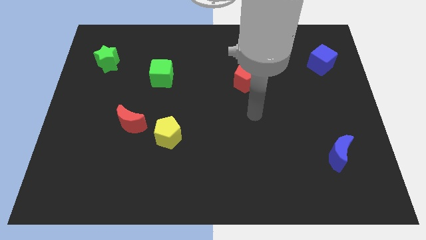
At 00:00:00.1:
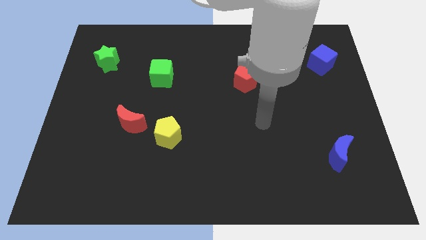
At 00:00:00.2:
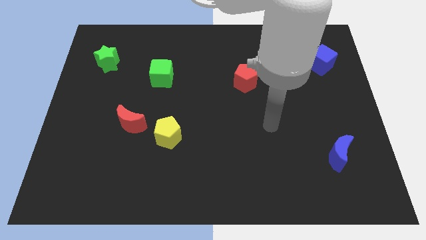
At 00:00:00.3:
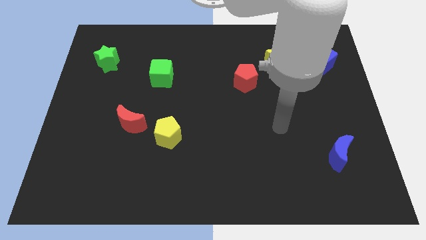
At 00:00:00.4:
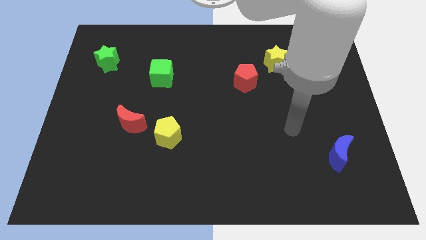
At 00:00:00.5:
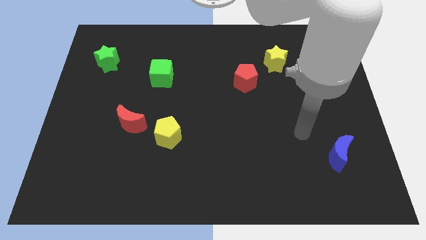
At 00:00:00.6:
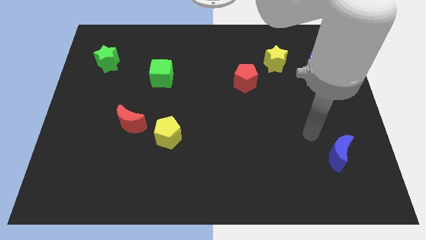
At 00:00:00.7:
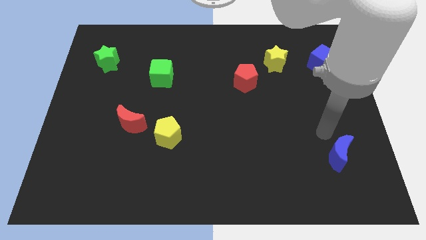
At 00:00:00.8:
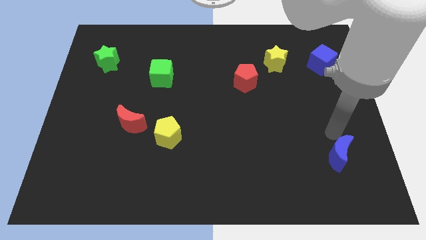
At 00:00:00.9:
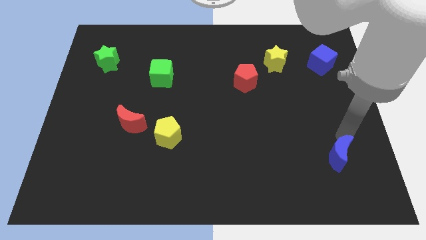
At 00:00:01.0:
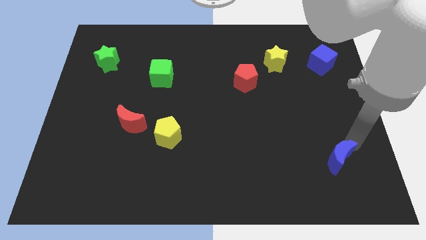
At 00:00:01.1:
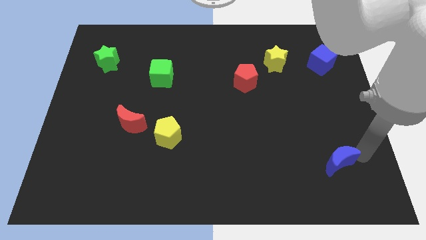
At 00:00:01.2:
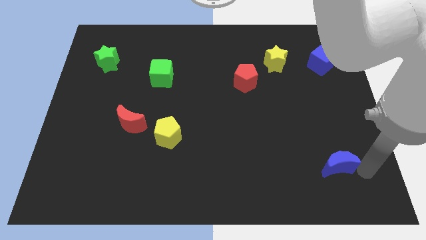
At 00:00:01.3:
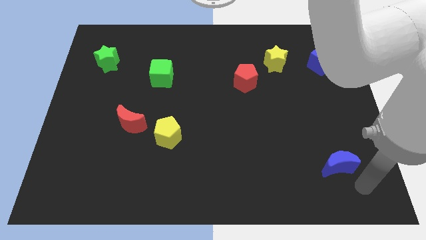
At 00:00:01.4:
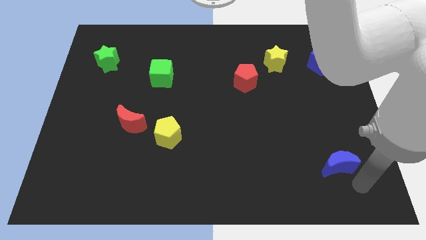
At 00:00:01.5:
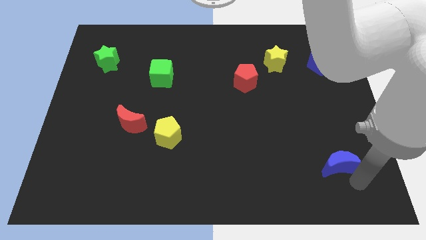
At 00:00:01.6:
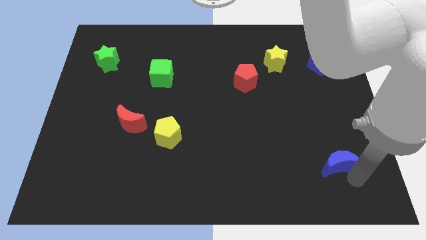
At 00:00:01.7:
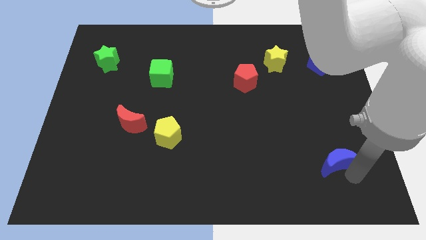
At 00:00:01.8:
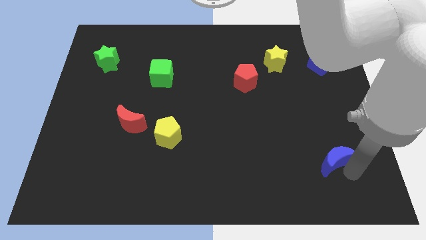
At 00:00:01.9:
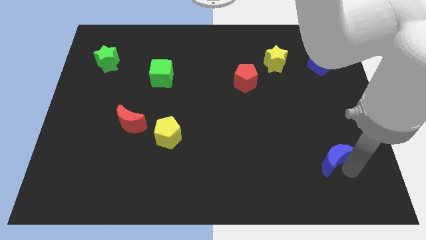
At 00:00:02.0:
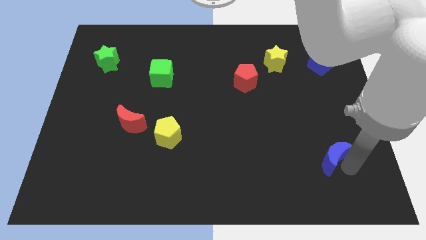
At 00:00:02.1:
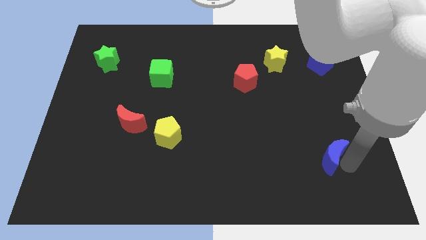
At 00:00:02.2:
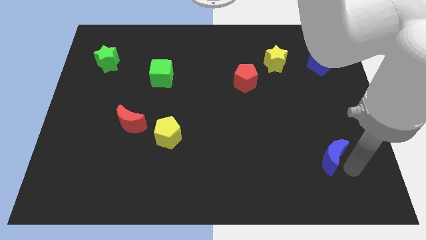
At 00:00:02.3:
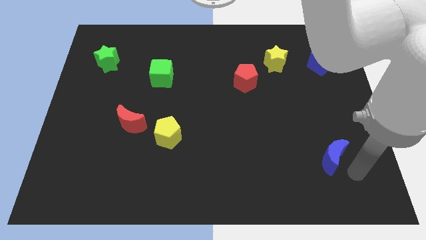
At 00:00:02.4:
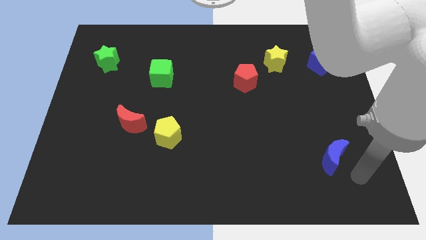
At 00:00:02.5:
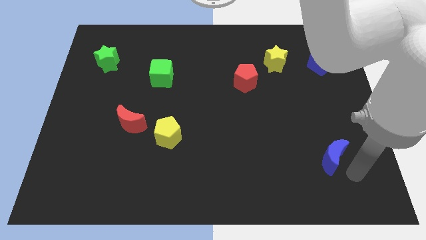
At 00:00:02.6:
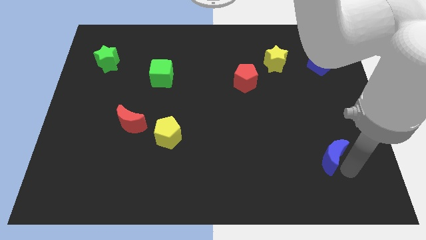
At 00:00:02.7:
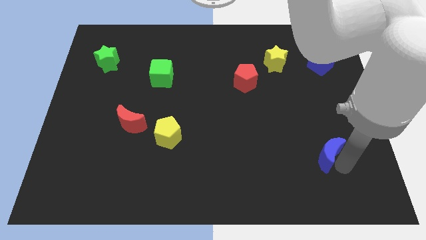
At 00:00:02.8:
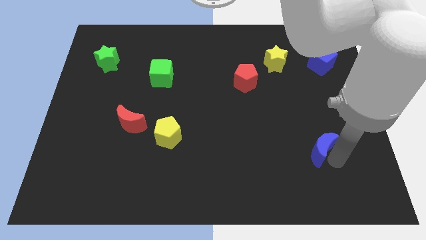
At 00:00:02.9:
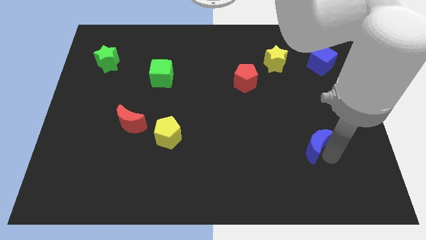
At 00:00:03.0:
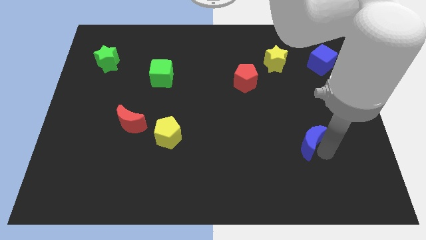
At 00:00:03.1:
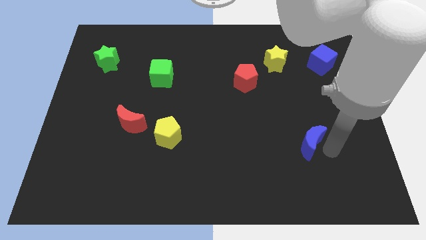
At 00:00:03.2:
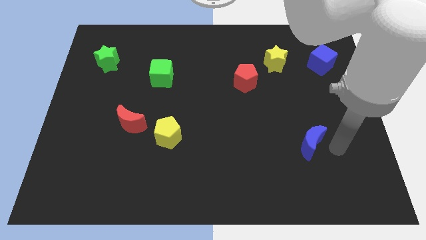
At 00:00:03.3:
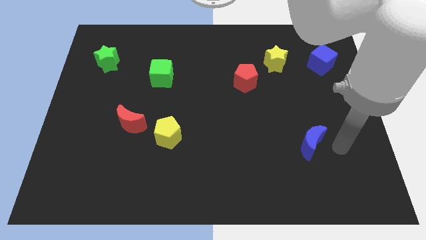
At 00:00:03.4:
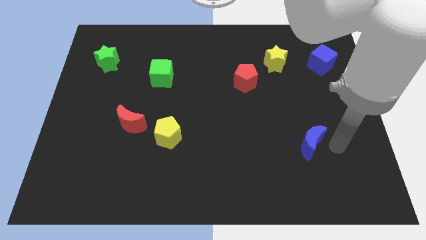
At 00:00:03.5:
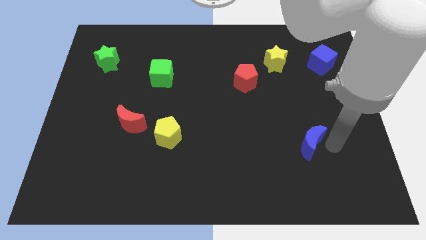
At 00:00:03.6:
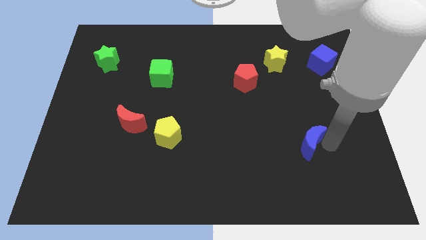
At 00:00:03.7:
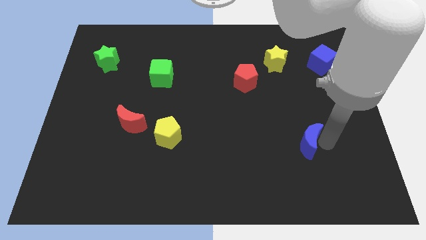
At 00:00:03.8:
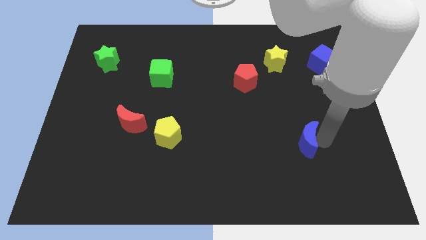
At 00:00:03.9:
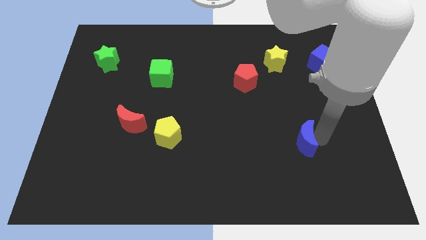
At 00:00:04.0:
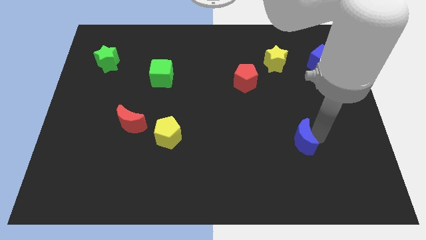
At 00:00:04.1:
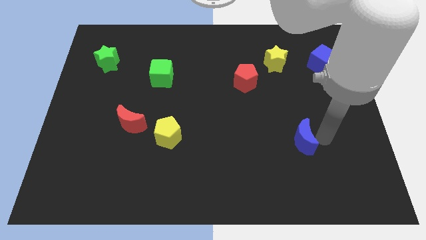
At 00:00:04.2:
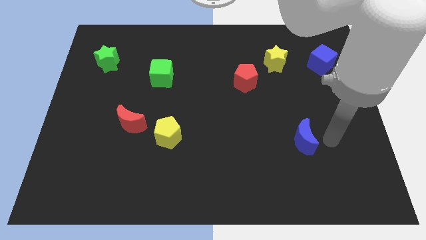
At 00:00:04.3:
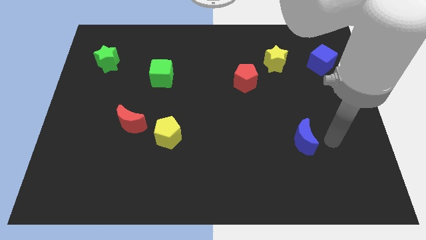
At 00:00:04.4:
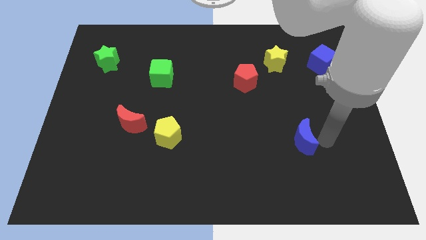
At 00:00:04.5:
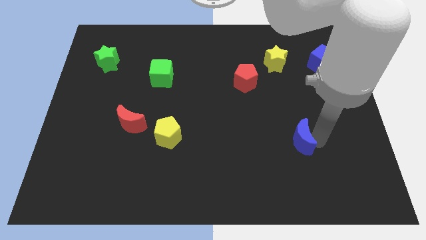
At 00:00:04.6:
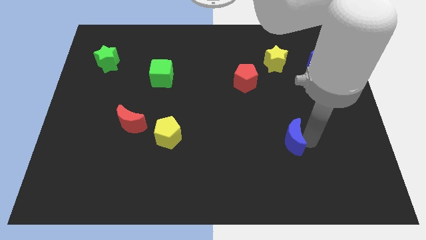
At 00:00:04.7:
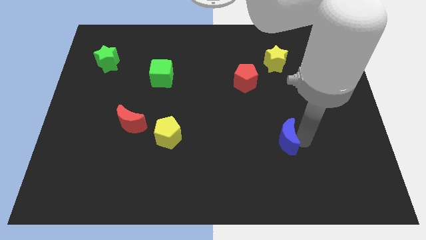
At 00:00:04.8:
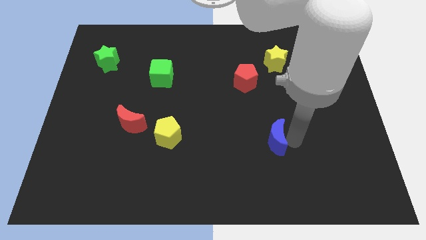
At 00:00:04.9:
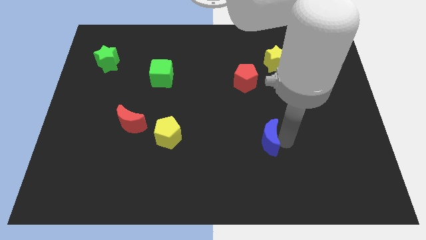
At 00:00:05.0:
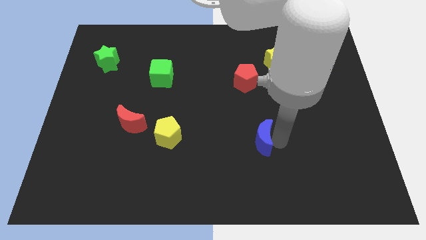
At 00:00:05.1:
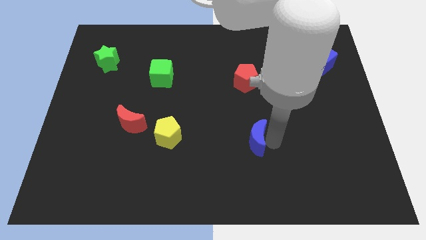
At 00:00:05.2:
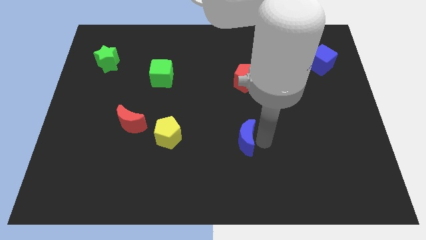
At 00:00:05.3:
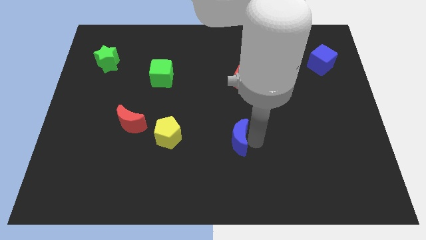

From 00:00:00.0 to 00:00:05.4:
put the blue moon to the right side of the yellow pentagon

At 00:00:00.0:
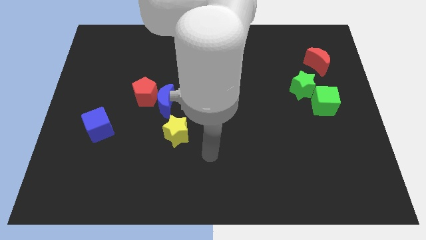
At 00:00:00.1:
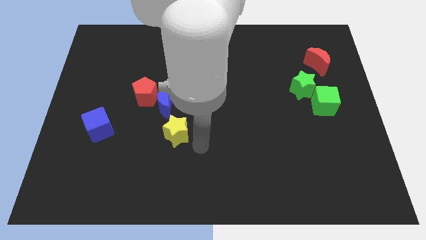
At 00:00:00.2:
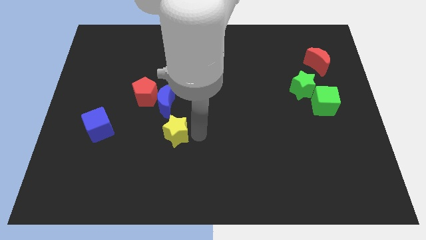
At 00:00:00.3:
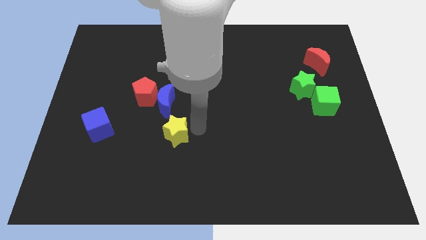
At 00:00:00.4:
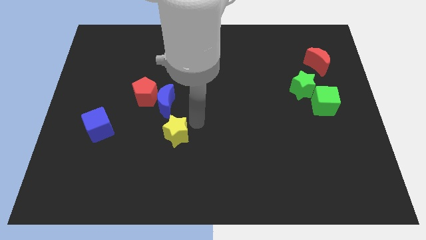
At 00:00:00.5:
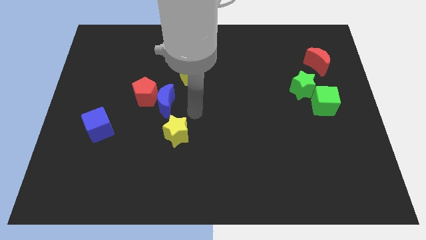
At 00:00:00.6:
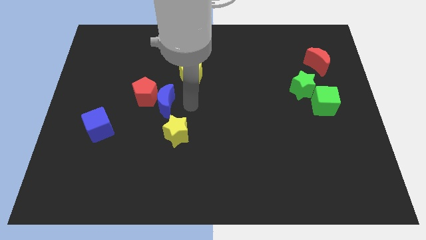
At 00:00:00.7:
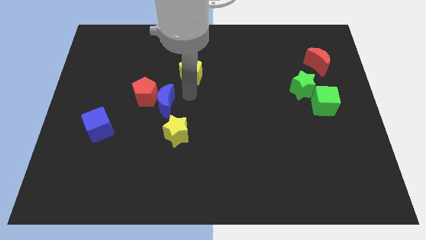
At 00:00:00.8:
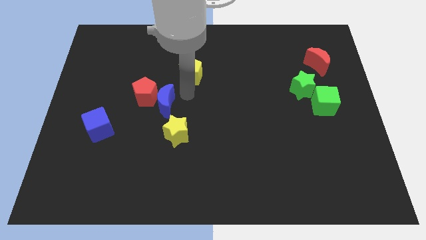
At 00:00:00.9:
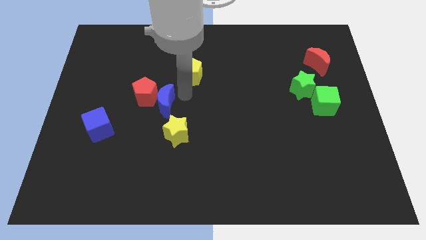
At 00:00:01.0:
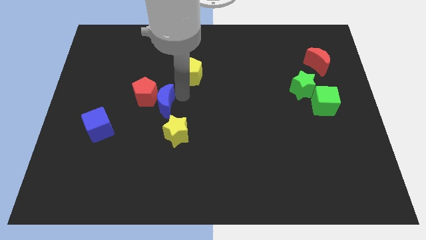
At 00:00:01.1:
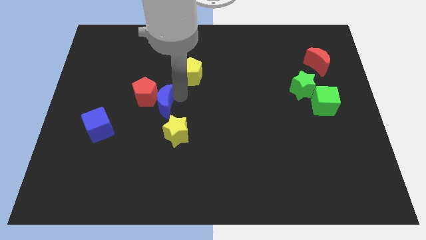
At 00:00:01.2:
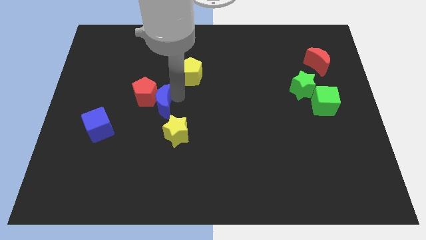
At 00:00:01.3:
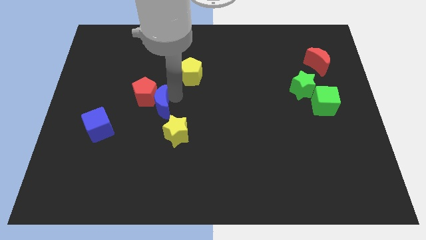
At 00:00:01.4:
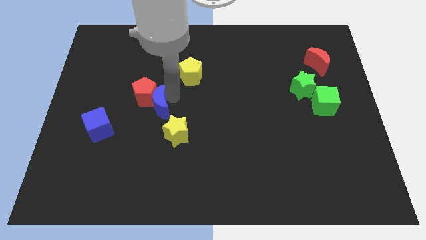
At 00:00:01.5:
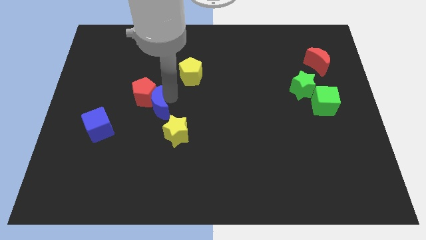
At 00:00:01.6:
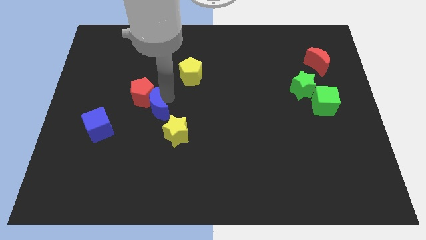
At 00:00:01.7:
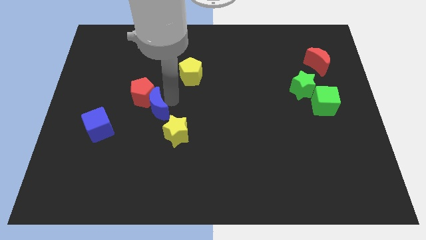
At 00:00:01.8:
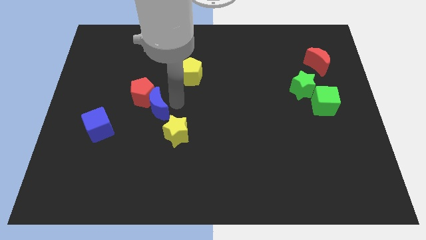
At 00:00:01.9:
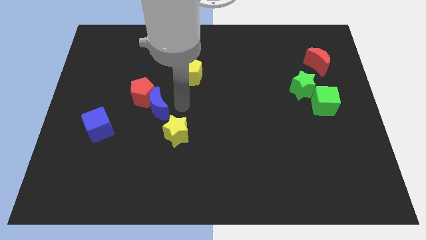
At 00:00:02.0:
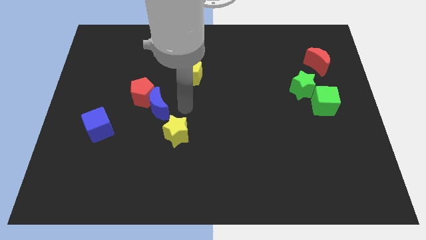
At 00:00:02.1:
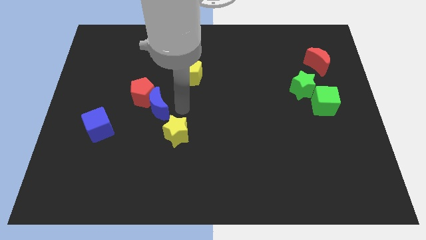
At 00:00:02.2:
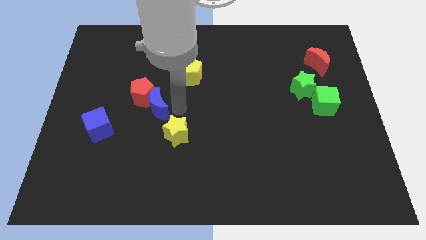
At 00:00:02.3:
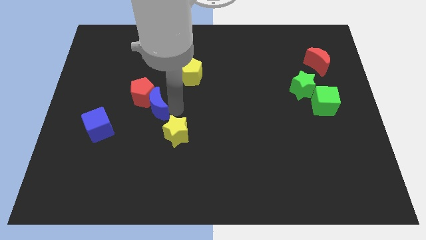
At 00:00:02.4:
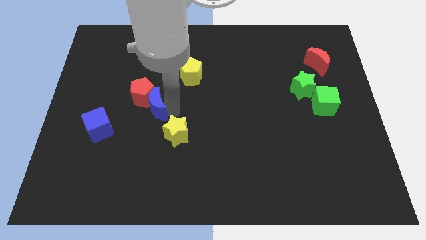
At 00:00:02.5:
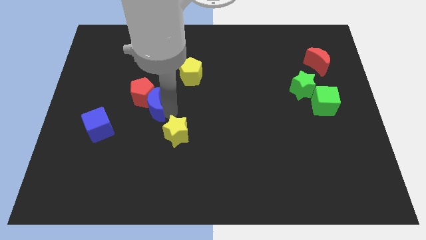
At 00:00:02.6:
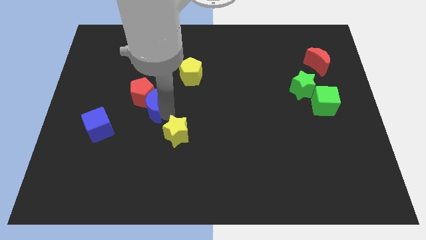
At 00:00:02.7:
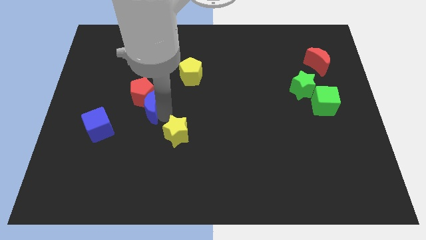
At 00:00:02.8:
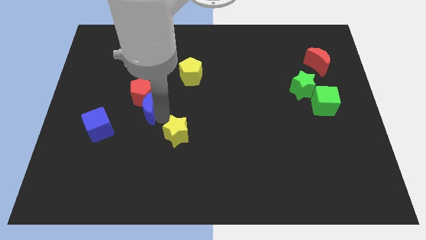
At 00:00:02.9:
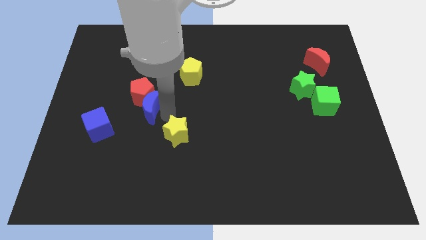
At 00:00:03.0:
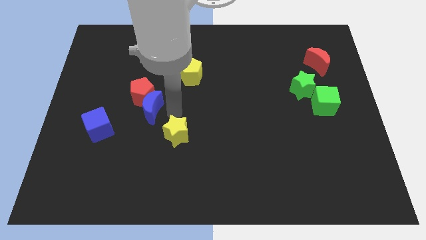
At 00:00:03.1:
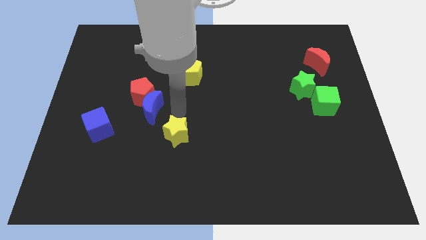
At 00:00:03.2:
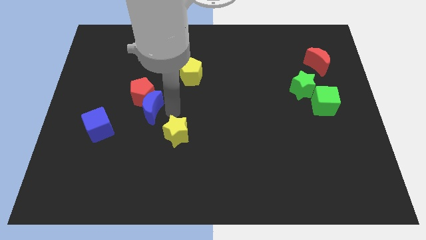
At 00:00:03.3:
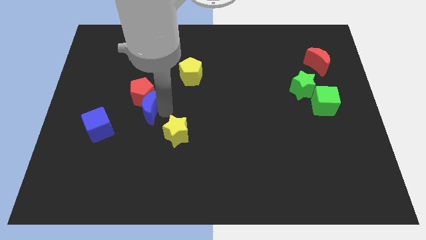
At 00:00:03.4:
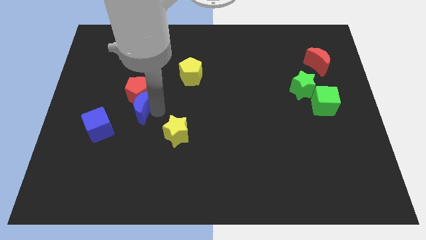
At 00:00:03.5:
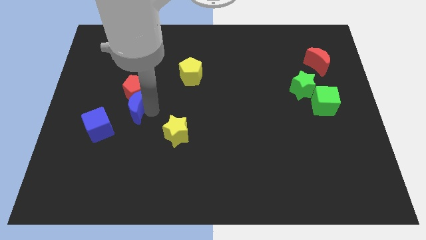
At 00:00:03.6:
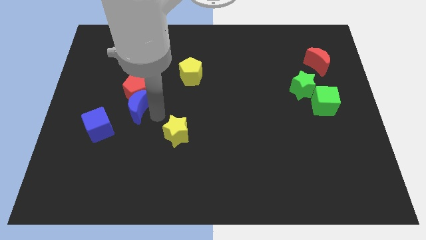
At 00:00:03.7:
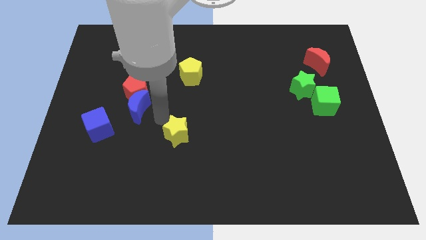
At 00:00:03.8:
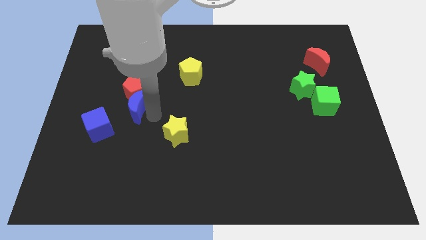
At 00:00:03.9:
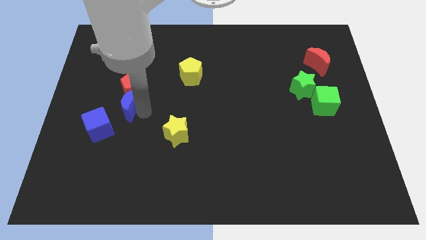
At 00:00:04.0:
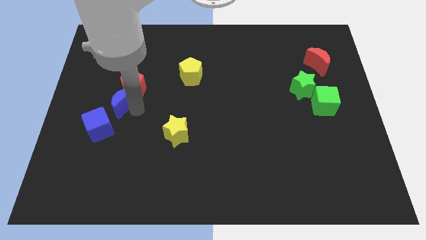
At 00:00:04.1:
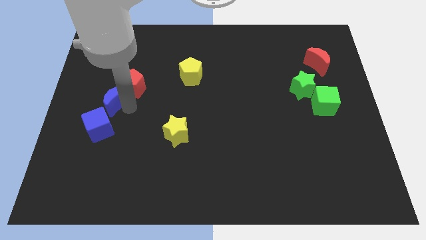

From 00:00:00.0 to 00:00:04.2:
slide the blue moon to the left of the red pentagon
